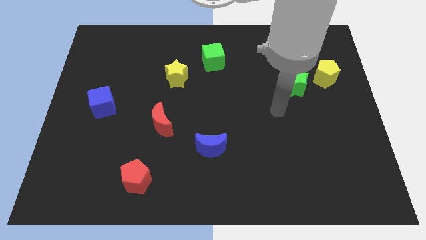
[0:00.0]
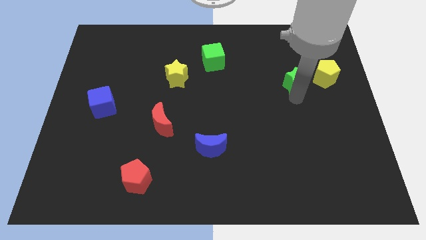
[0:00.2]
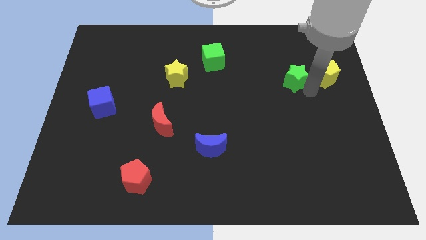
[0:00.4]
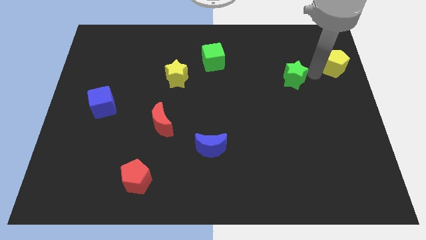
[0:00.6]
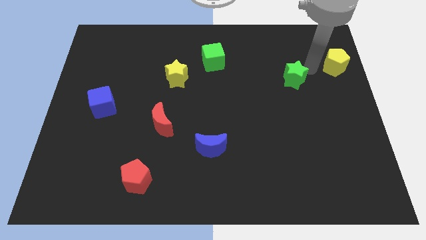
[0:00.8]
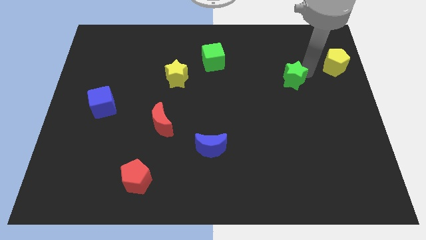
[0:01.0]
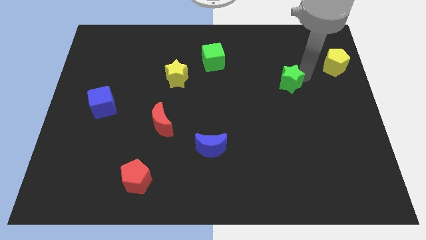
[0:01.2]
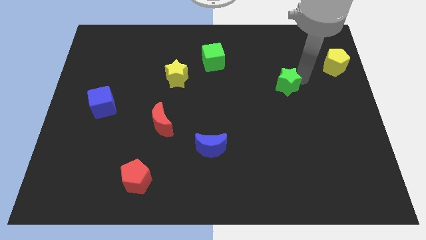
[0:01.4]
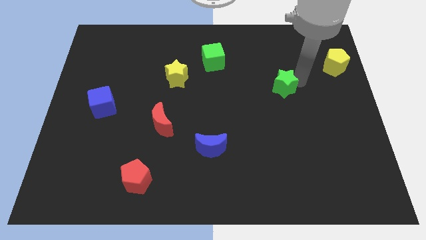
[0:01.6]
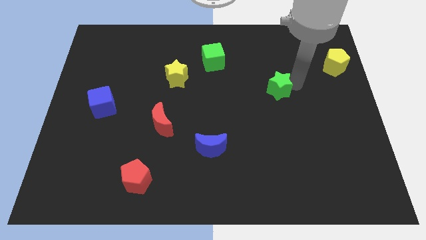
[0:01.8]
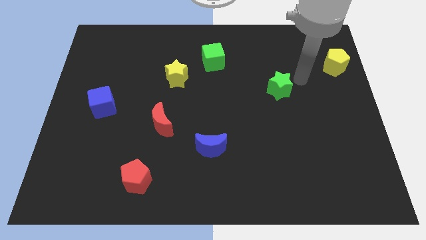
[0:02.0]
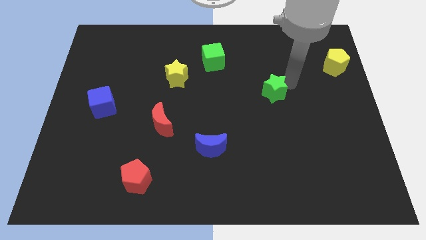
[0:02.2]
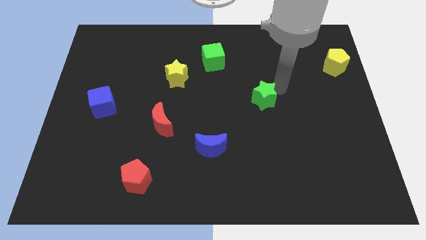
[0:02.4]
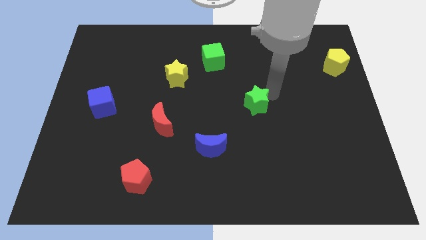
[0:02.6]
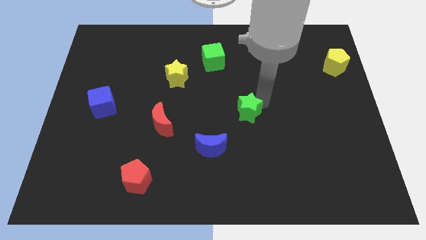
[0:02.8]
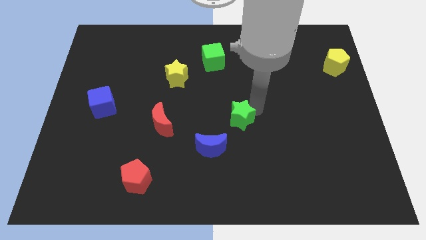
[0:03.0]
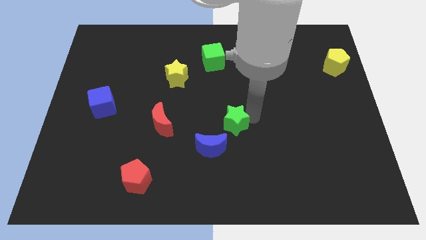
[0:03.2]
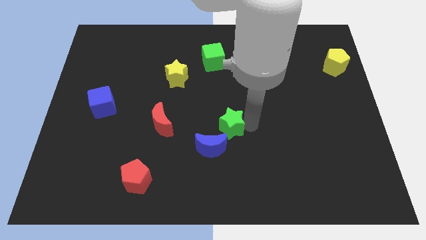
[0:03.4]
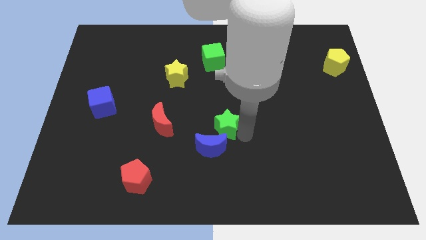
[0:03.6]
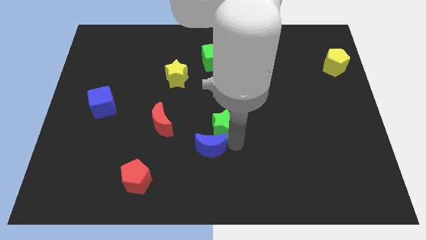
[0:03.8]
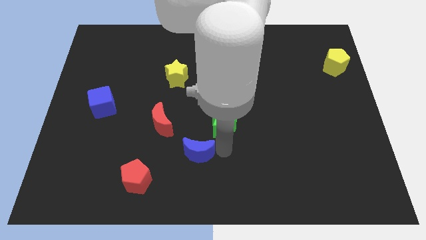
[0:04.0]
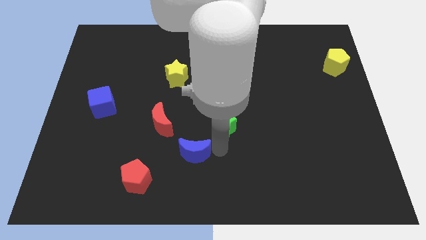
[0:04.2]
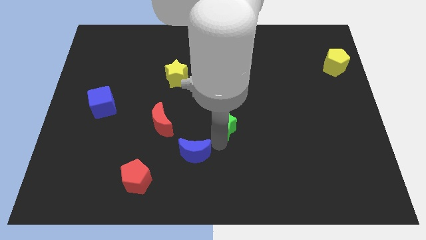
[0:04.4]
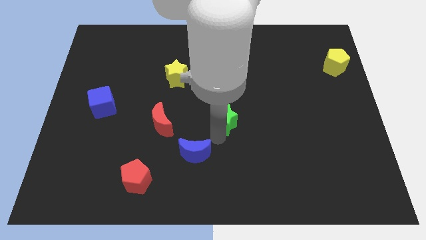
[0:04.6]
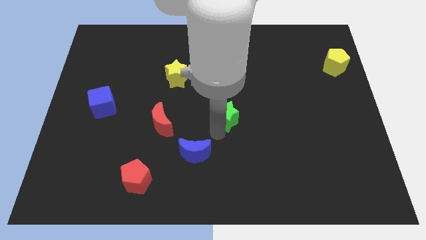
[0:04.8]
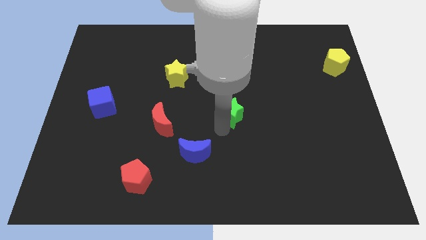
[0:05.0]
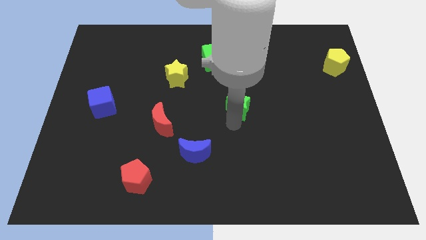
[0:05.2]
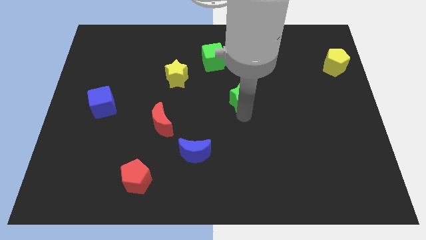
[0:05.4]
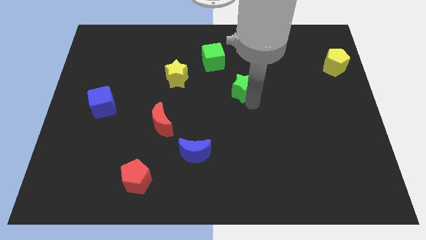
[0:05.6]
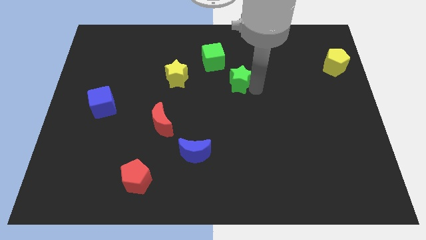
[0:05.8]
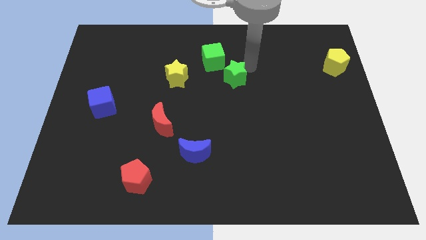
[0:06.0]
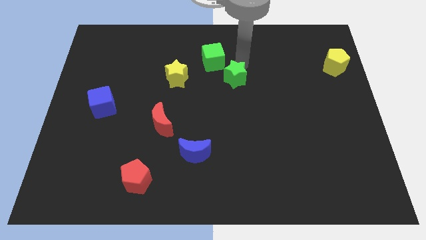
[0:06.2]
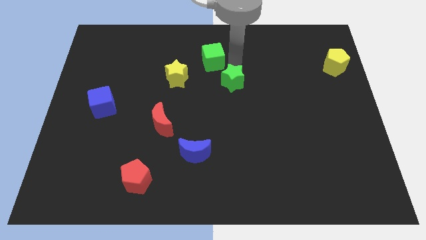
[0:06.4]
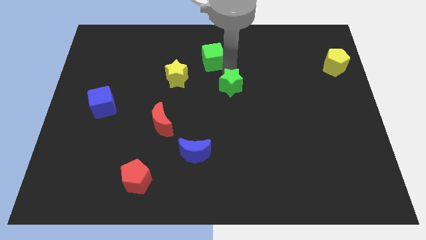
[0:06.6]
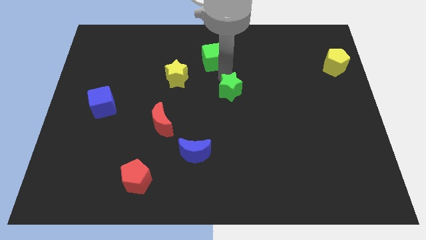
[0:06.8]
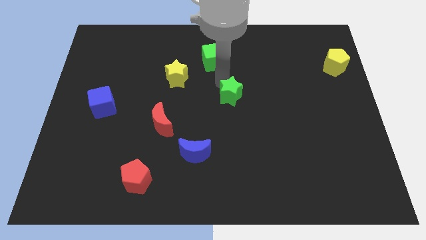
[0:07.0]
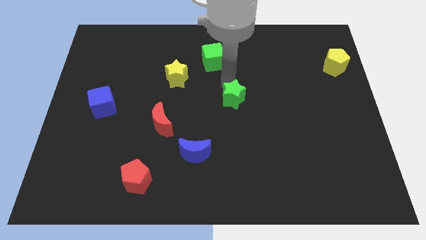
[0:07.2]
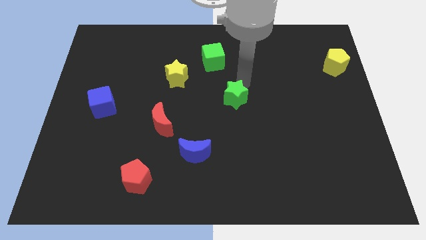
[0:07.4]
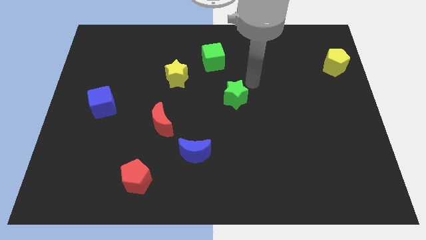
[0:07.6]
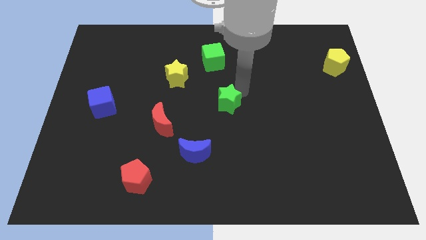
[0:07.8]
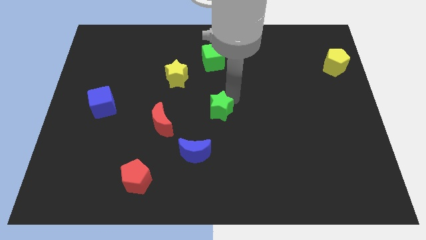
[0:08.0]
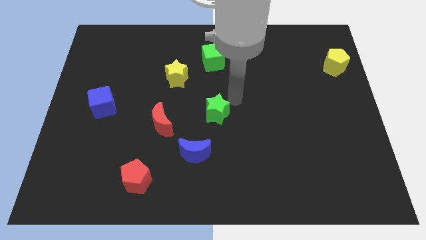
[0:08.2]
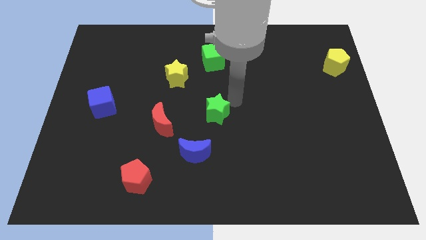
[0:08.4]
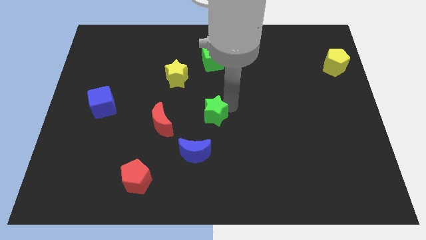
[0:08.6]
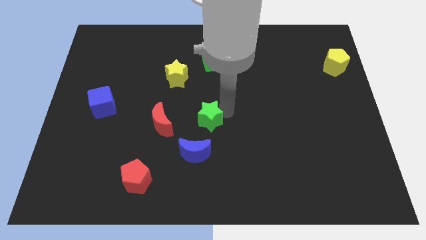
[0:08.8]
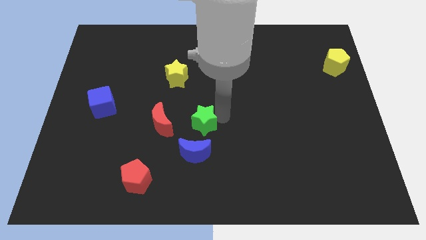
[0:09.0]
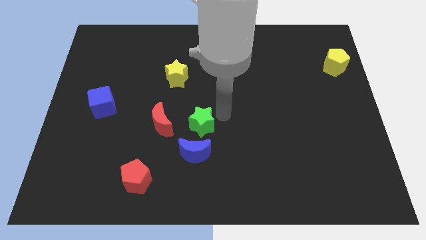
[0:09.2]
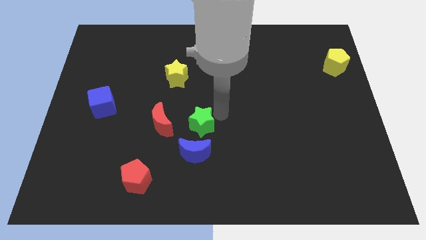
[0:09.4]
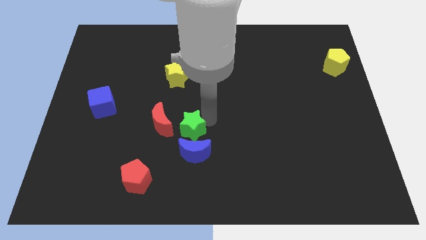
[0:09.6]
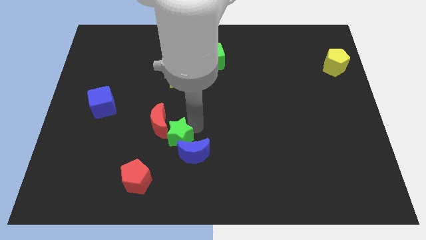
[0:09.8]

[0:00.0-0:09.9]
move the green star to the bottom of the red moon

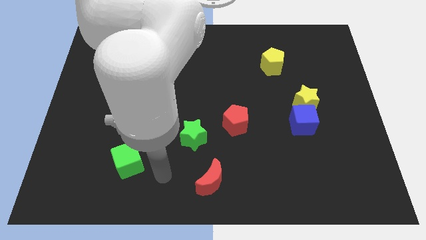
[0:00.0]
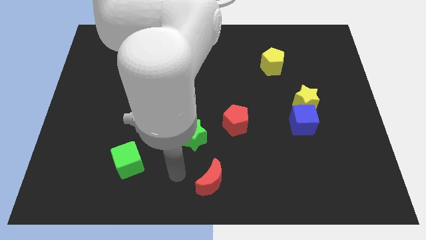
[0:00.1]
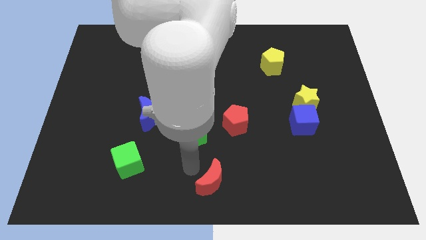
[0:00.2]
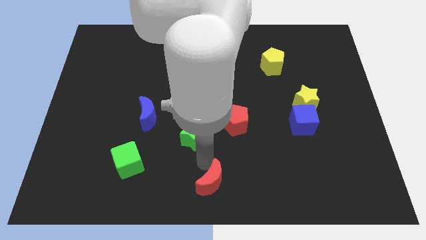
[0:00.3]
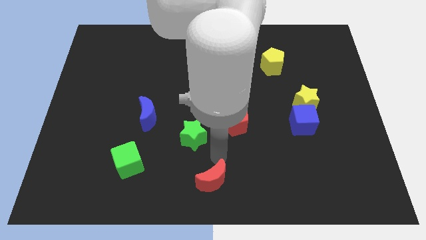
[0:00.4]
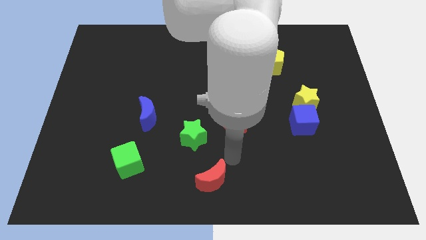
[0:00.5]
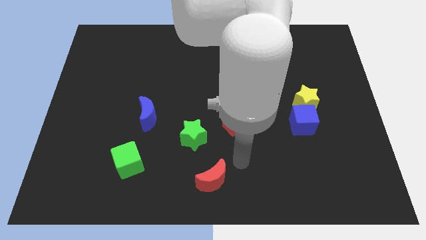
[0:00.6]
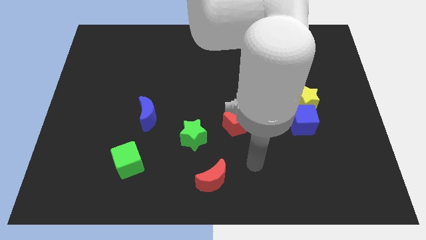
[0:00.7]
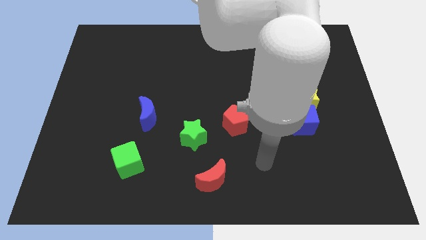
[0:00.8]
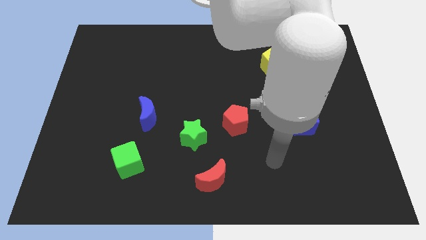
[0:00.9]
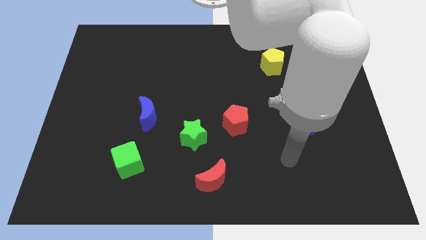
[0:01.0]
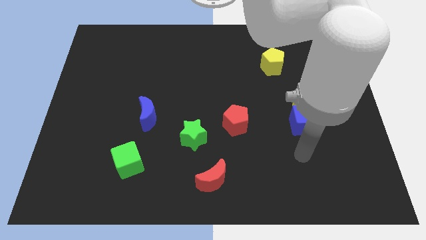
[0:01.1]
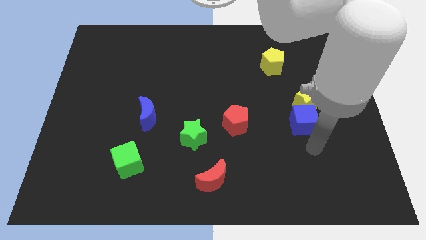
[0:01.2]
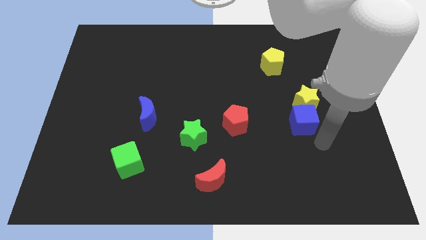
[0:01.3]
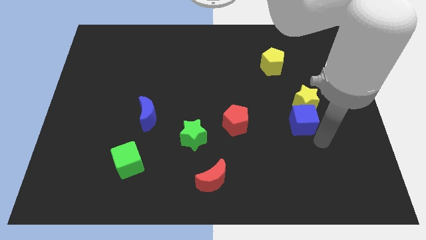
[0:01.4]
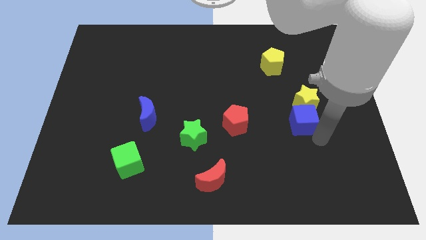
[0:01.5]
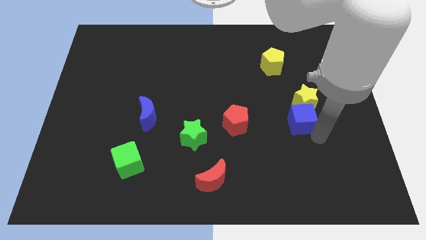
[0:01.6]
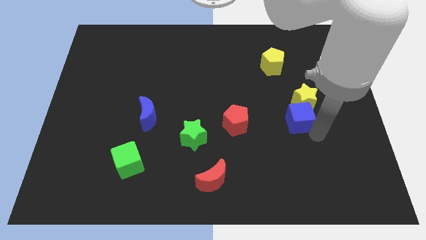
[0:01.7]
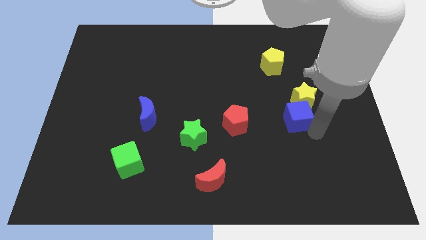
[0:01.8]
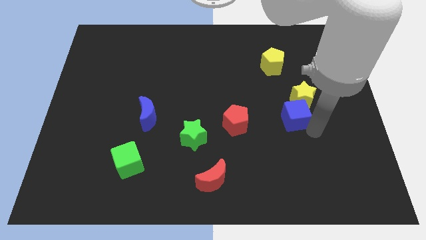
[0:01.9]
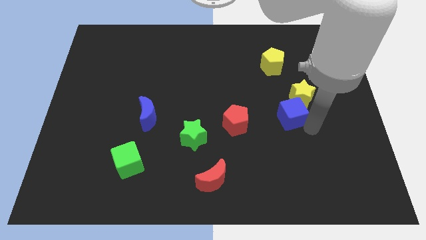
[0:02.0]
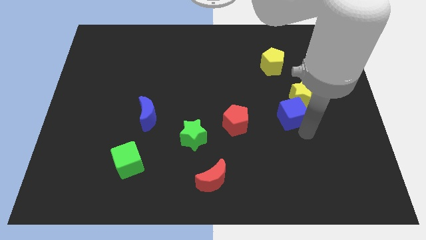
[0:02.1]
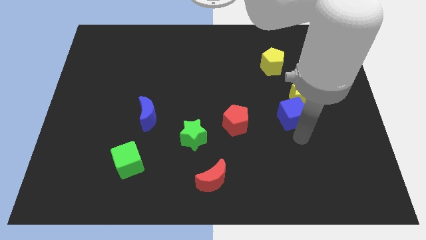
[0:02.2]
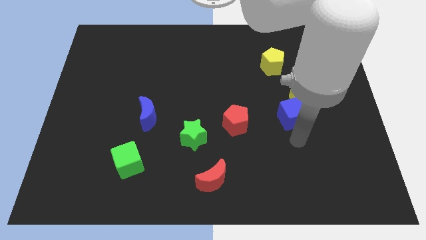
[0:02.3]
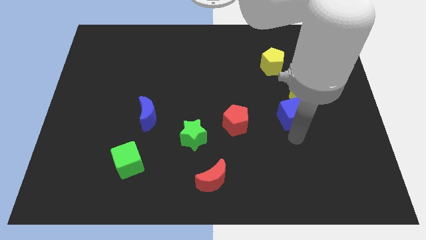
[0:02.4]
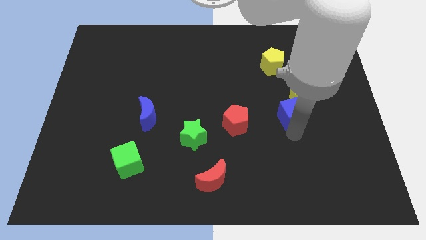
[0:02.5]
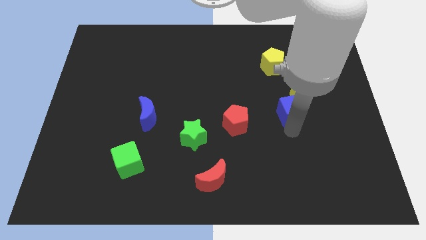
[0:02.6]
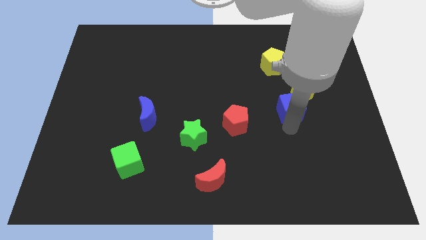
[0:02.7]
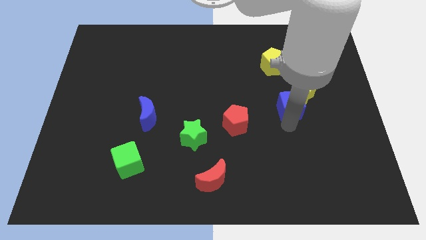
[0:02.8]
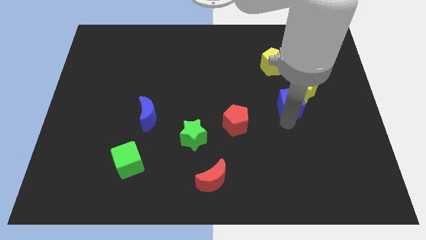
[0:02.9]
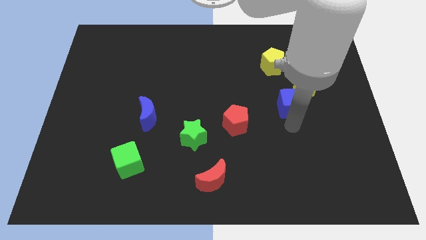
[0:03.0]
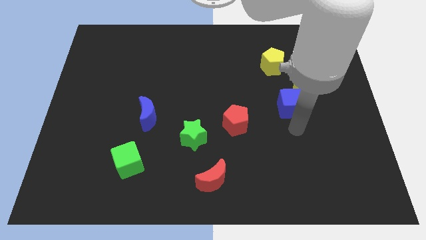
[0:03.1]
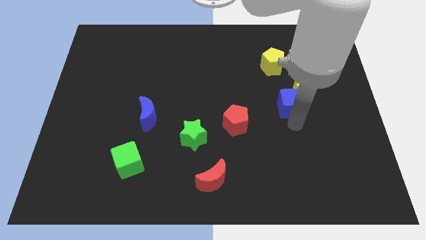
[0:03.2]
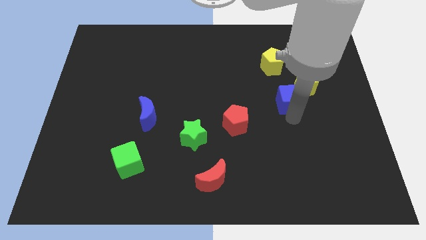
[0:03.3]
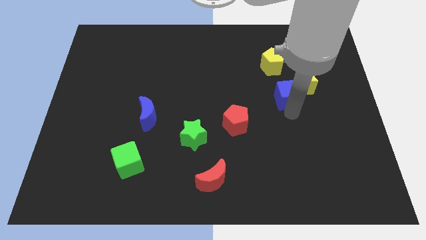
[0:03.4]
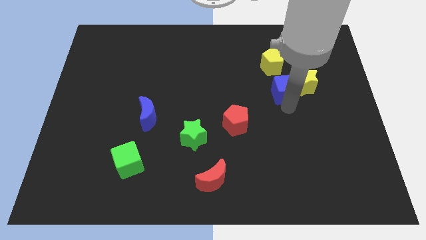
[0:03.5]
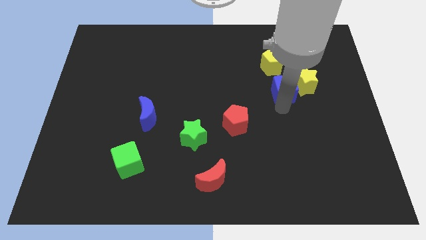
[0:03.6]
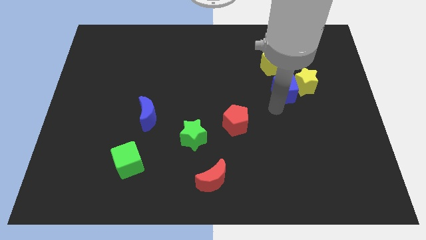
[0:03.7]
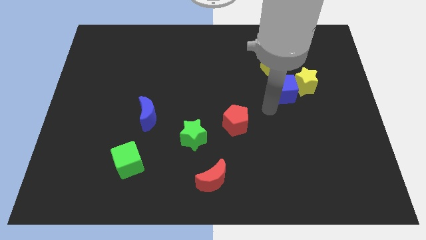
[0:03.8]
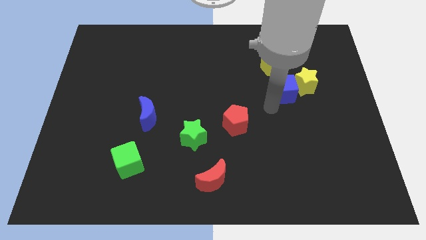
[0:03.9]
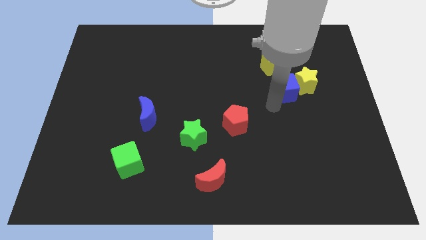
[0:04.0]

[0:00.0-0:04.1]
move the blue cube to the bottom right side of the yellow pentagon
